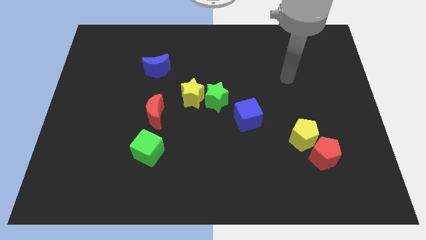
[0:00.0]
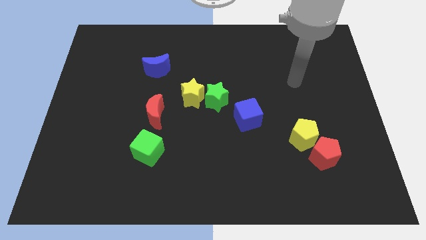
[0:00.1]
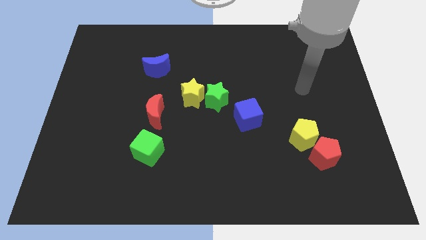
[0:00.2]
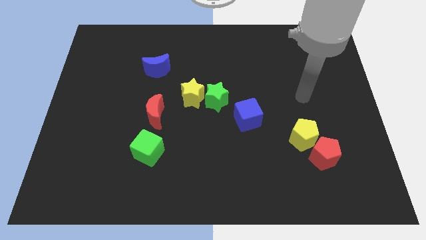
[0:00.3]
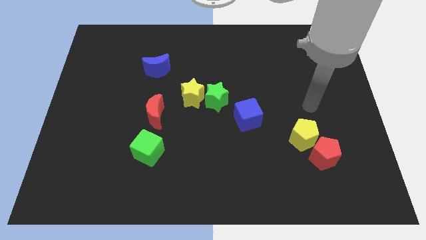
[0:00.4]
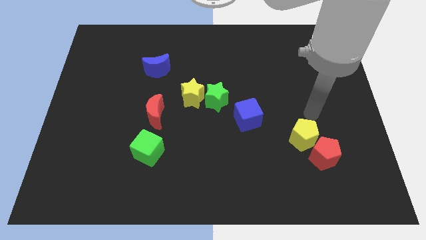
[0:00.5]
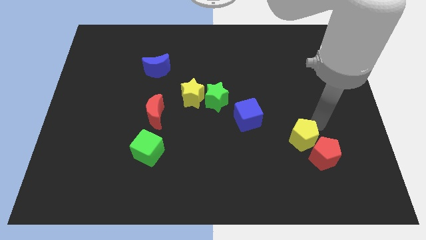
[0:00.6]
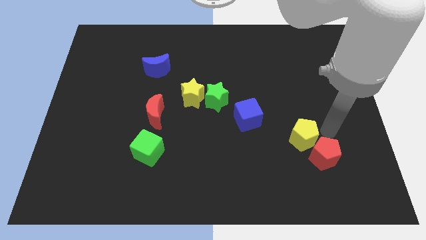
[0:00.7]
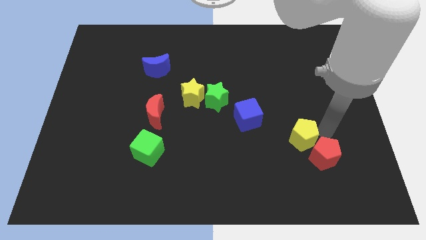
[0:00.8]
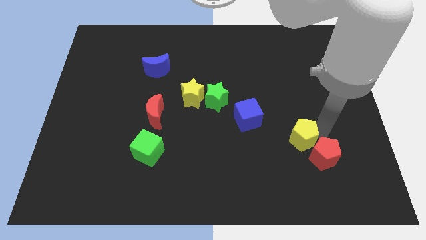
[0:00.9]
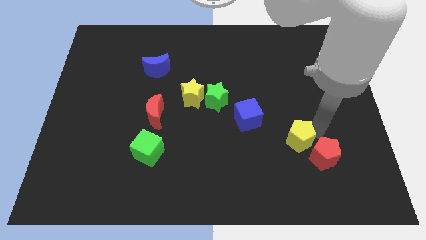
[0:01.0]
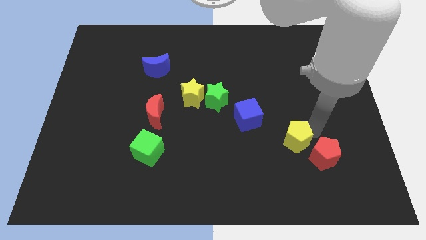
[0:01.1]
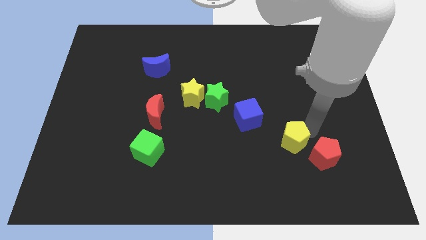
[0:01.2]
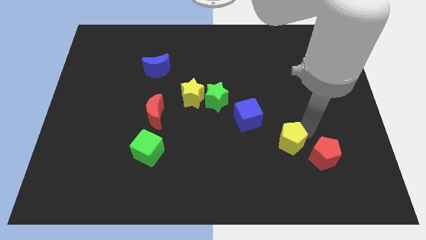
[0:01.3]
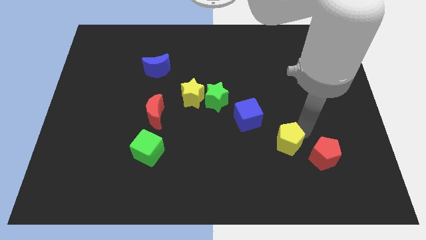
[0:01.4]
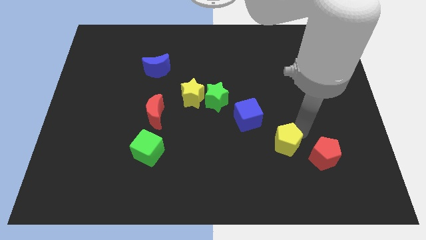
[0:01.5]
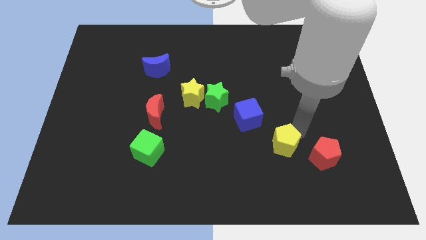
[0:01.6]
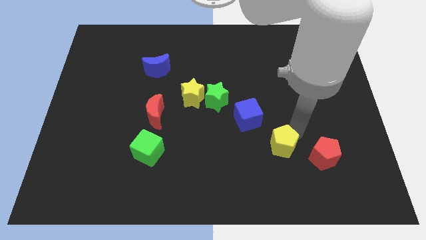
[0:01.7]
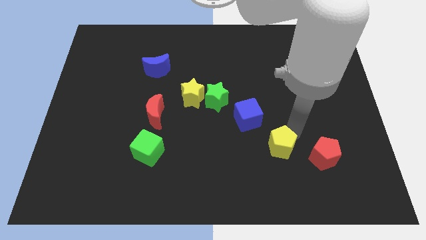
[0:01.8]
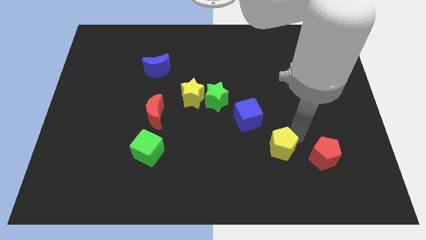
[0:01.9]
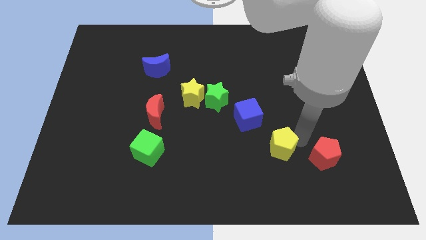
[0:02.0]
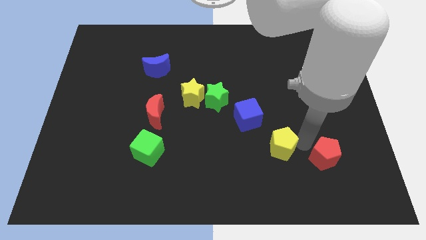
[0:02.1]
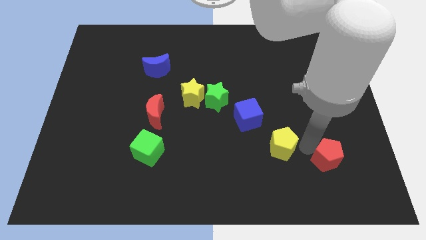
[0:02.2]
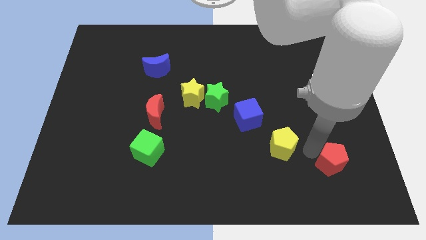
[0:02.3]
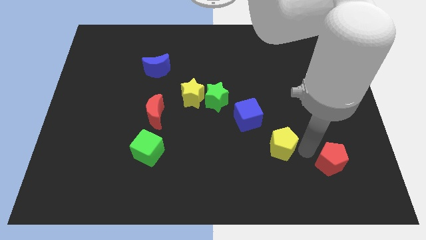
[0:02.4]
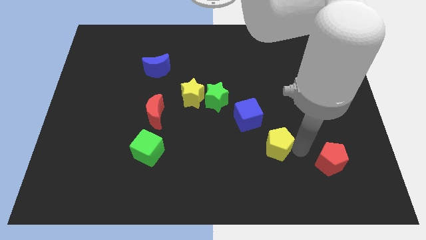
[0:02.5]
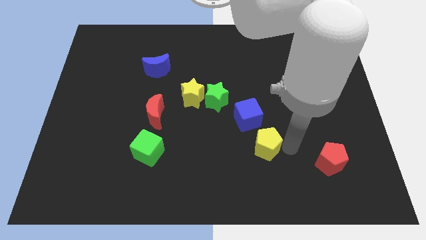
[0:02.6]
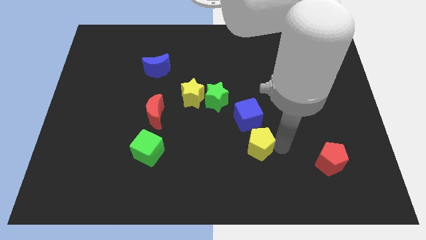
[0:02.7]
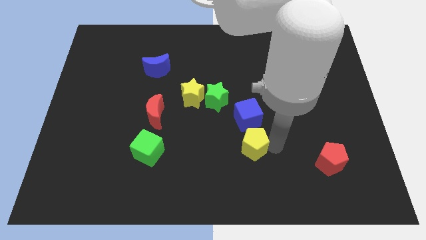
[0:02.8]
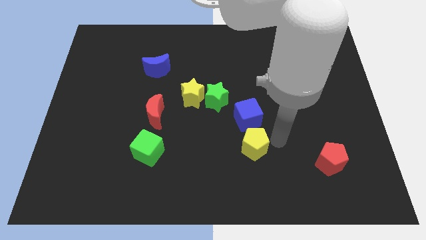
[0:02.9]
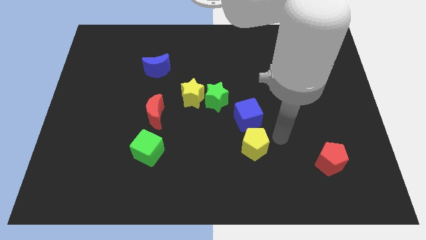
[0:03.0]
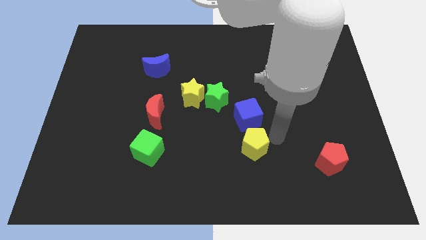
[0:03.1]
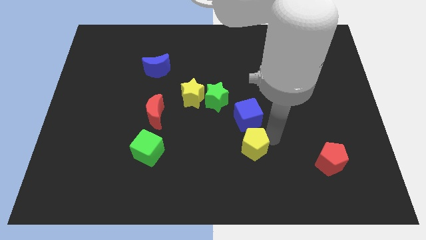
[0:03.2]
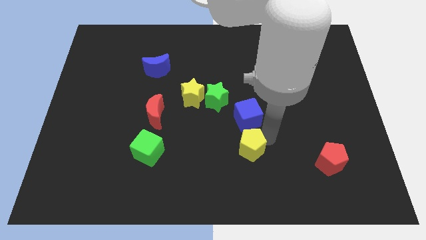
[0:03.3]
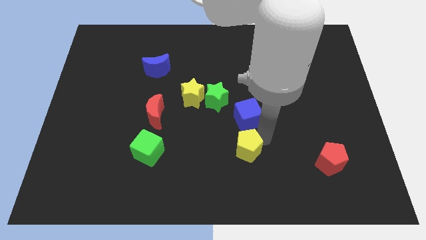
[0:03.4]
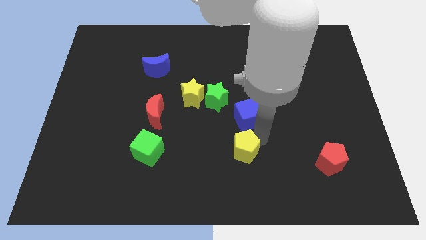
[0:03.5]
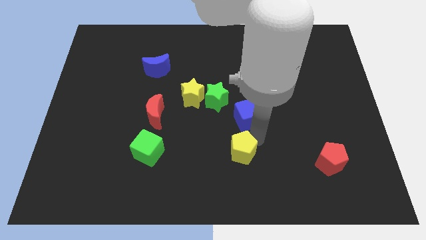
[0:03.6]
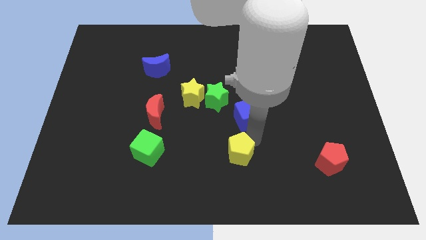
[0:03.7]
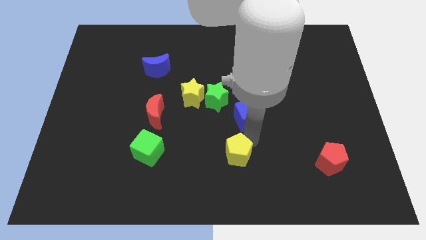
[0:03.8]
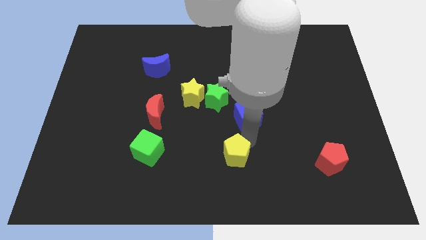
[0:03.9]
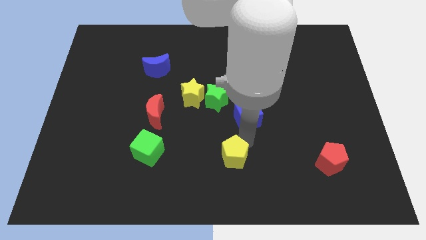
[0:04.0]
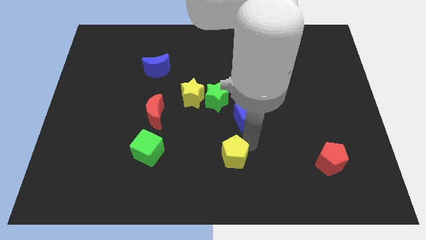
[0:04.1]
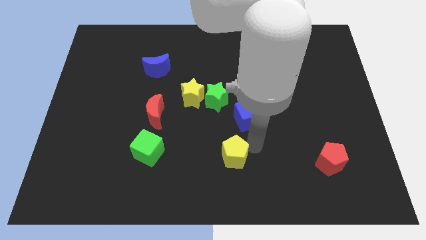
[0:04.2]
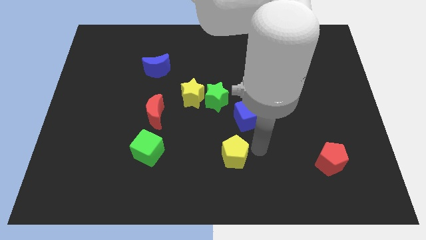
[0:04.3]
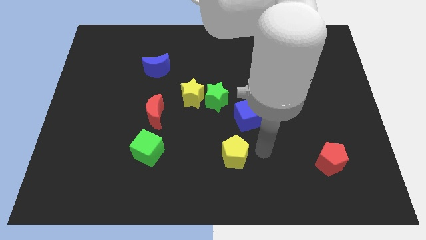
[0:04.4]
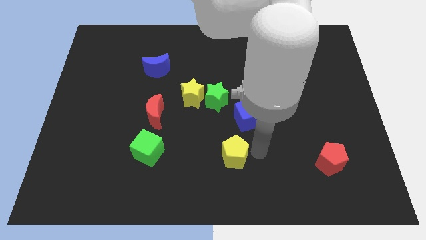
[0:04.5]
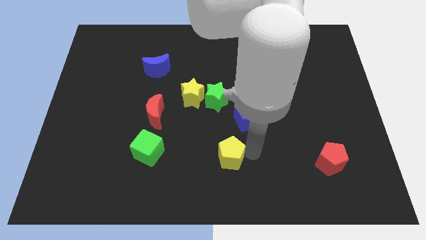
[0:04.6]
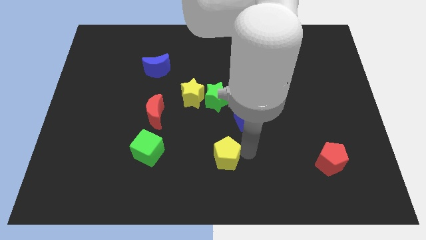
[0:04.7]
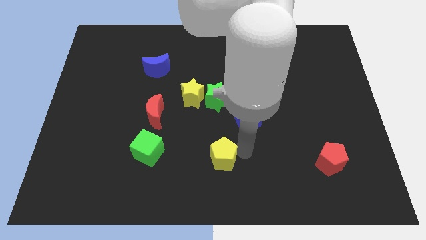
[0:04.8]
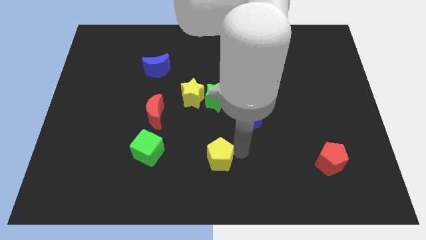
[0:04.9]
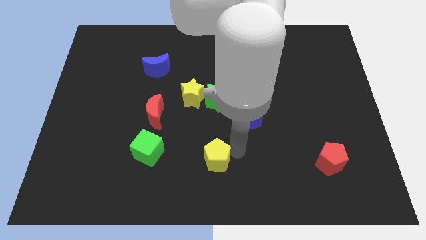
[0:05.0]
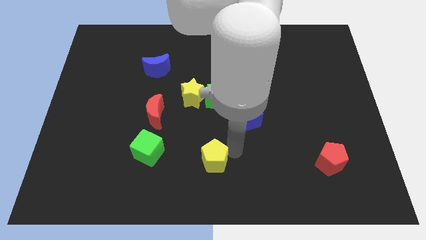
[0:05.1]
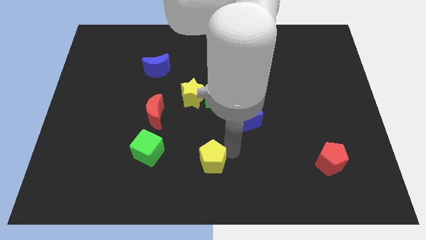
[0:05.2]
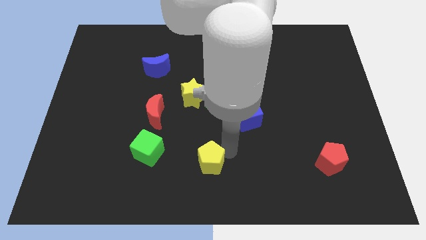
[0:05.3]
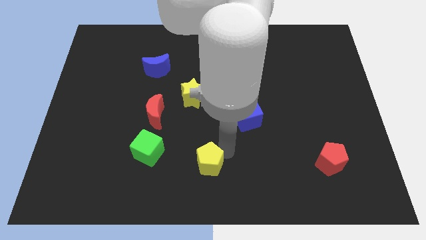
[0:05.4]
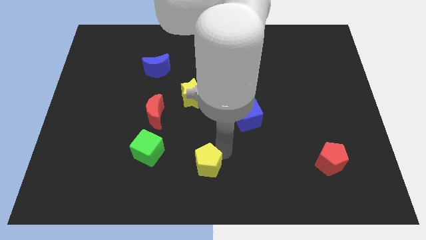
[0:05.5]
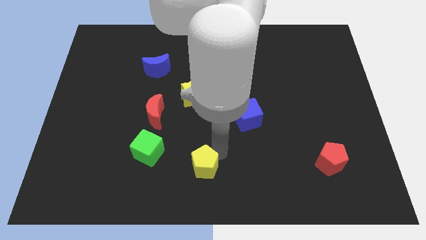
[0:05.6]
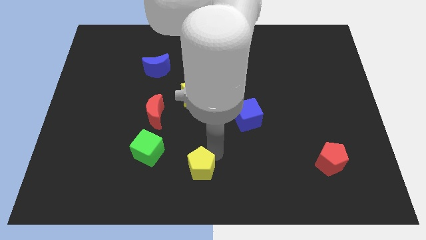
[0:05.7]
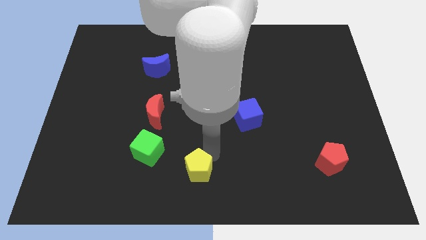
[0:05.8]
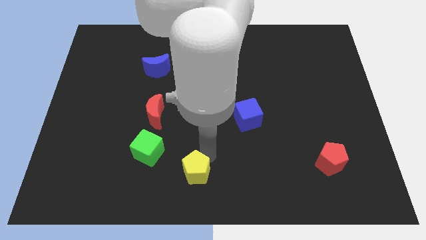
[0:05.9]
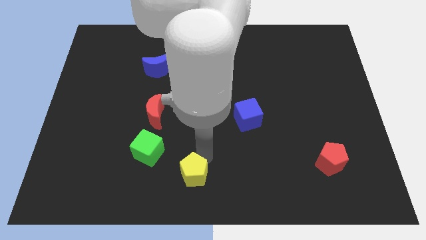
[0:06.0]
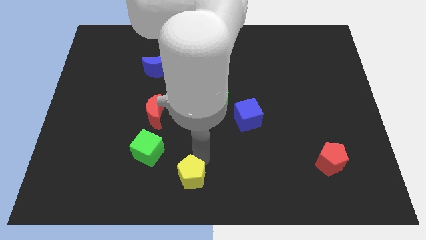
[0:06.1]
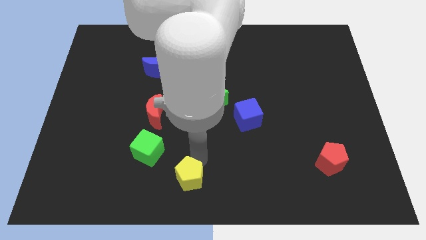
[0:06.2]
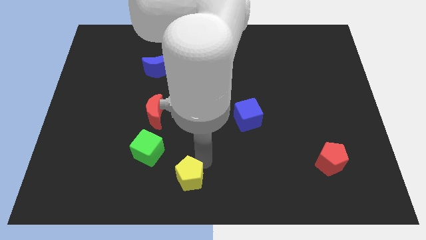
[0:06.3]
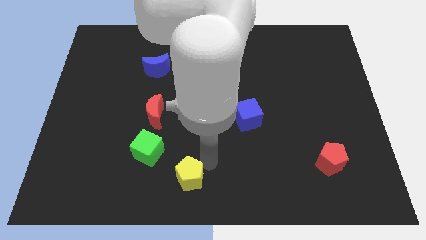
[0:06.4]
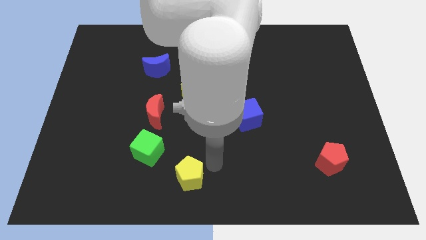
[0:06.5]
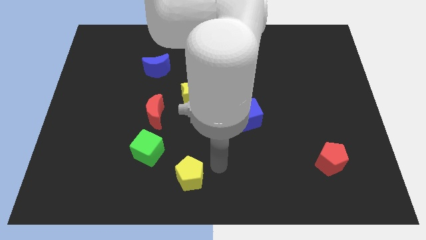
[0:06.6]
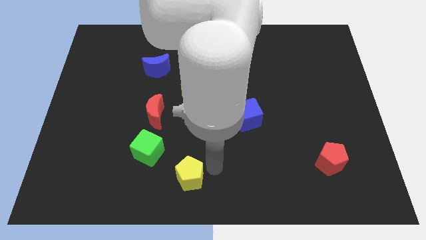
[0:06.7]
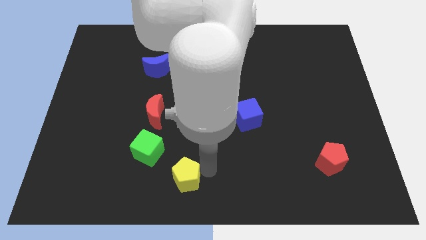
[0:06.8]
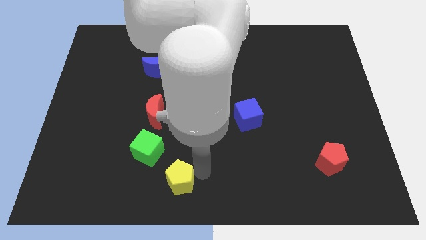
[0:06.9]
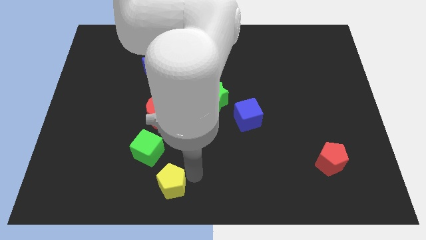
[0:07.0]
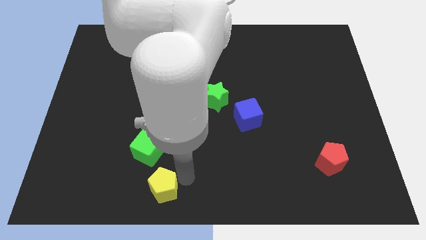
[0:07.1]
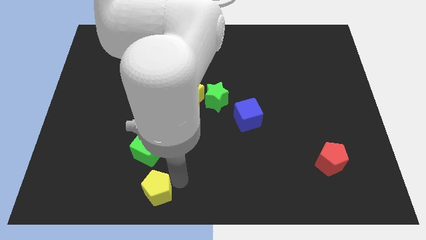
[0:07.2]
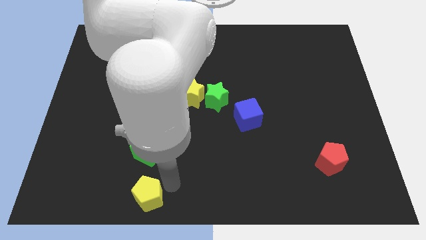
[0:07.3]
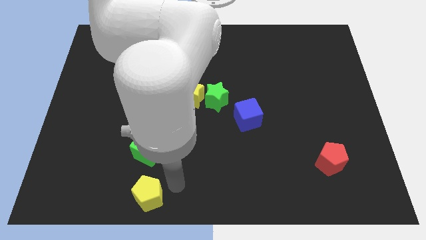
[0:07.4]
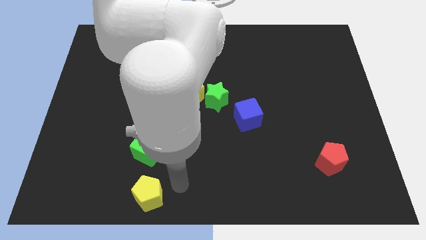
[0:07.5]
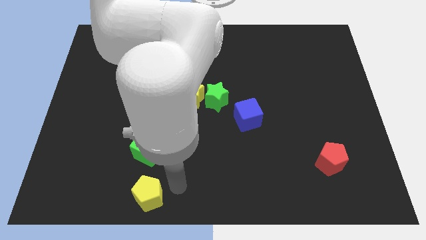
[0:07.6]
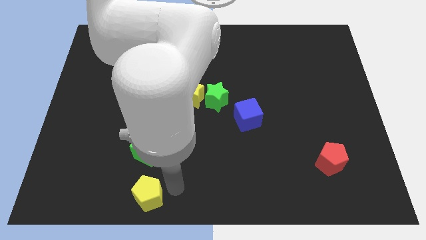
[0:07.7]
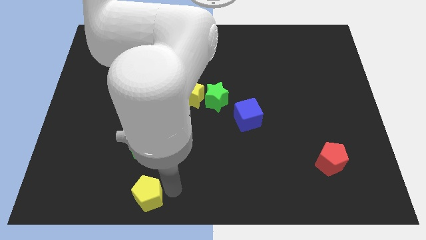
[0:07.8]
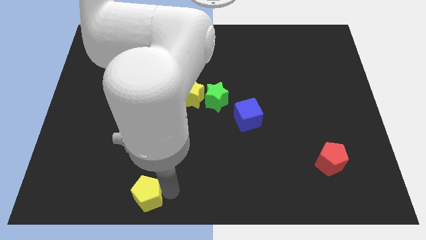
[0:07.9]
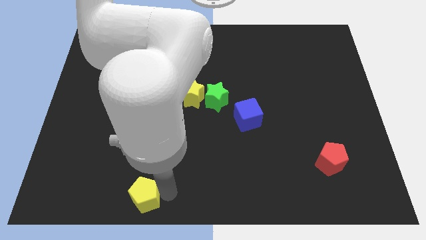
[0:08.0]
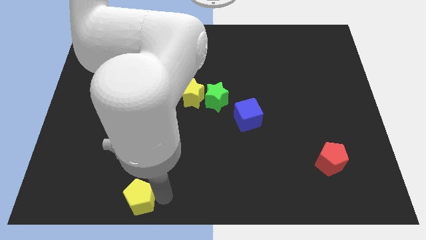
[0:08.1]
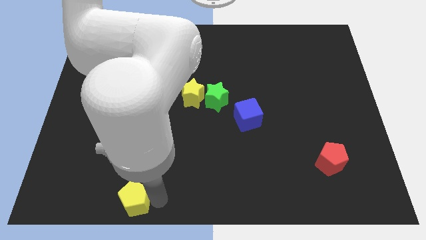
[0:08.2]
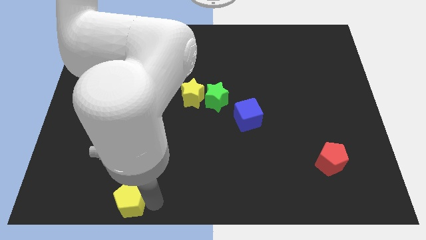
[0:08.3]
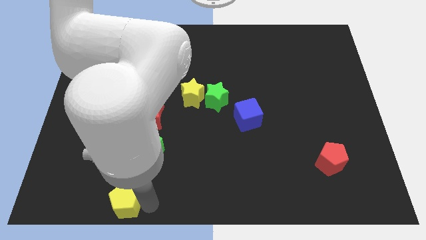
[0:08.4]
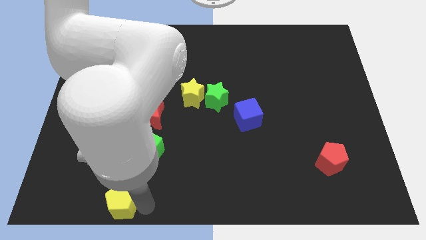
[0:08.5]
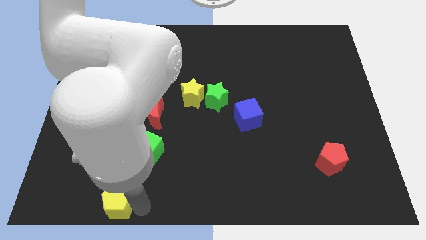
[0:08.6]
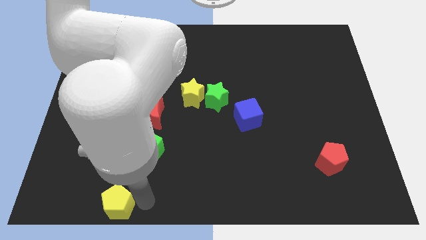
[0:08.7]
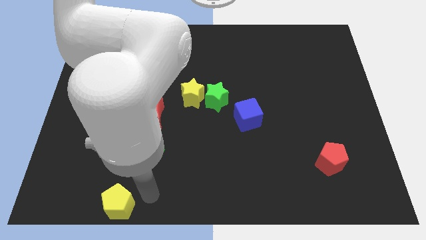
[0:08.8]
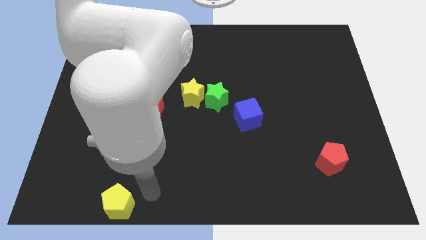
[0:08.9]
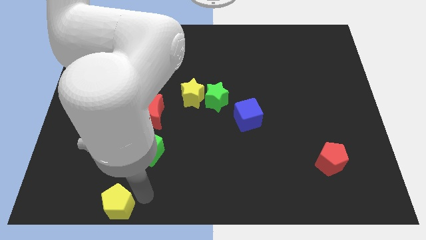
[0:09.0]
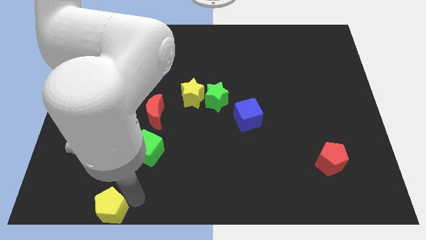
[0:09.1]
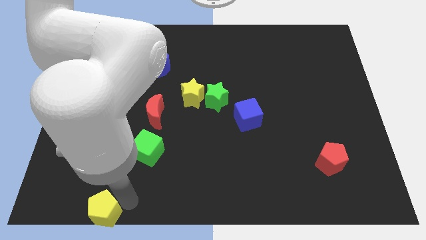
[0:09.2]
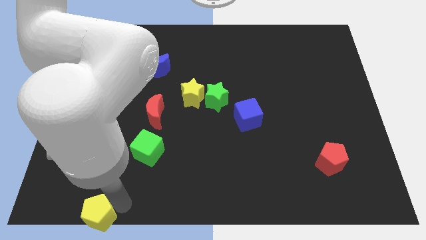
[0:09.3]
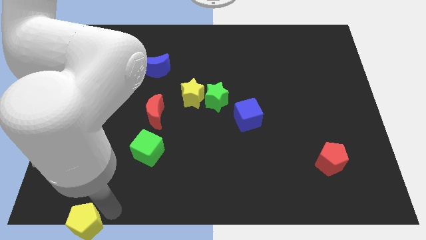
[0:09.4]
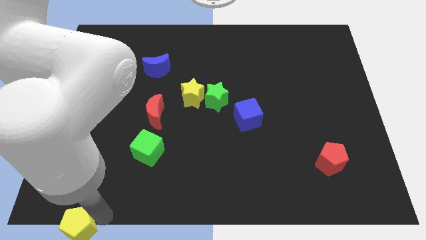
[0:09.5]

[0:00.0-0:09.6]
slide the yellow pentagon to the lower left corner
